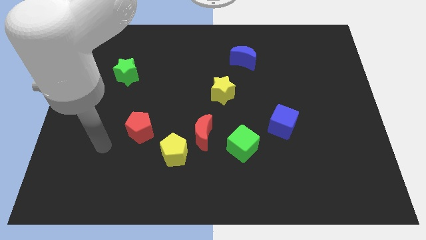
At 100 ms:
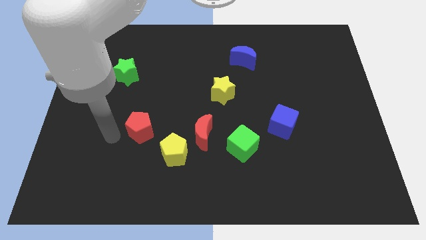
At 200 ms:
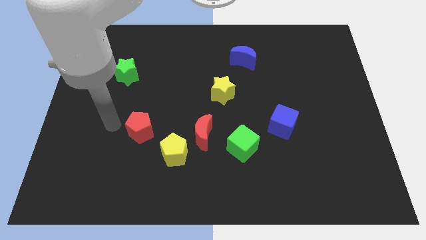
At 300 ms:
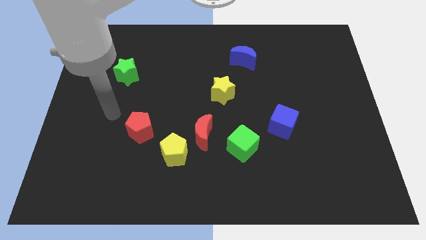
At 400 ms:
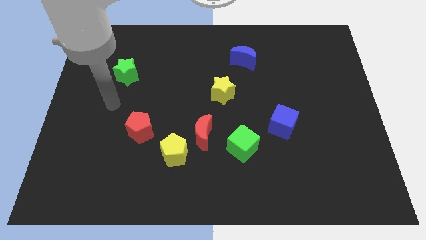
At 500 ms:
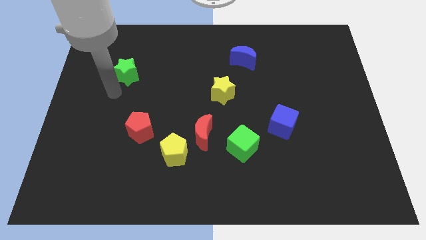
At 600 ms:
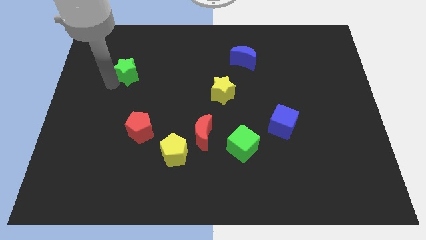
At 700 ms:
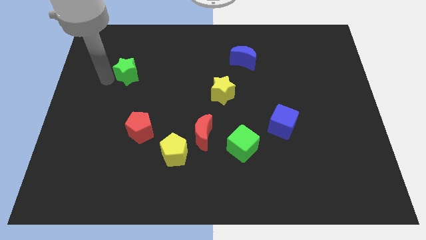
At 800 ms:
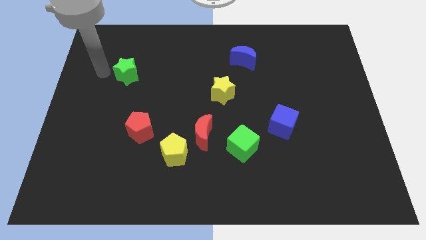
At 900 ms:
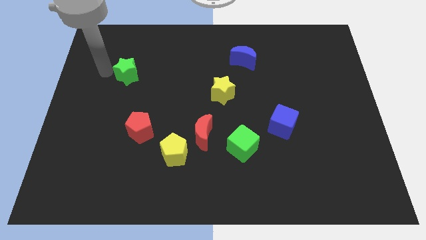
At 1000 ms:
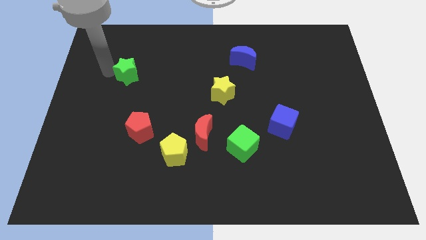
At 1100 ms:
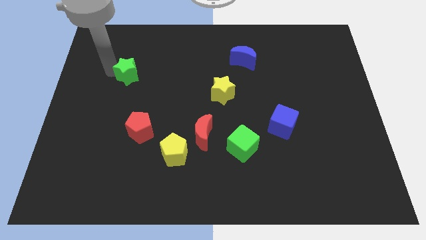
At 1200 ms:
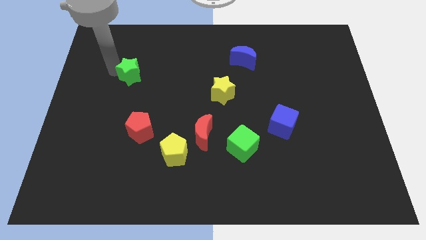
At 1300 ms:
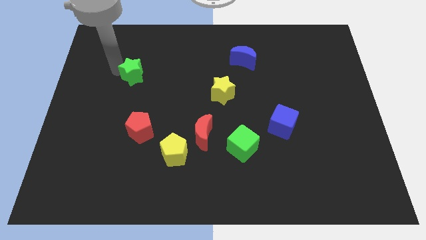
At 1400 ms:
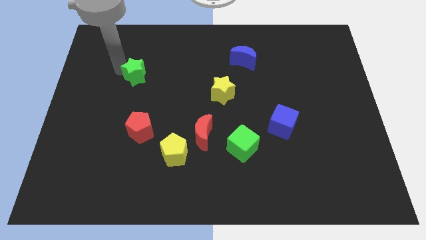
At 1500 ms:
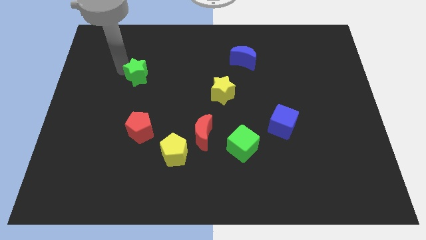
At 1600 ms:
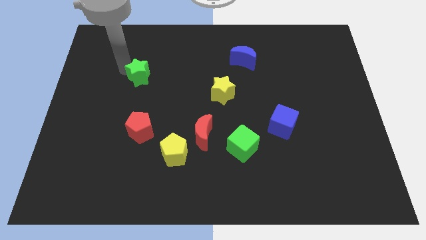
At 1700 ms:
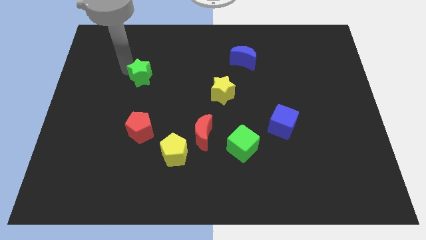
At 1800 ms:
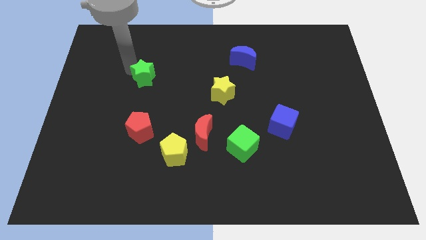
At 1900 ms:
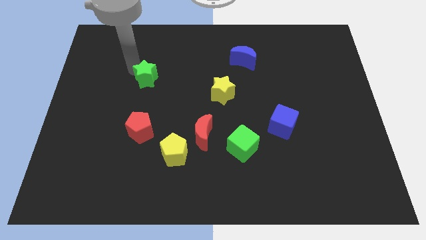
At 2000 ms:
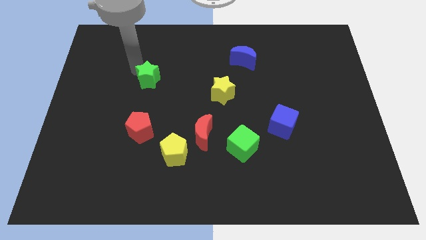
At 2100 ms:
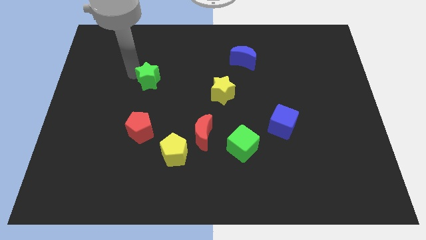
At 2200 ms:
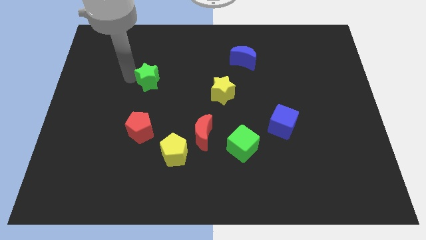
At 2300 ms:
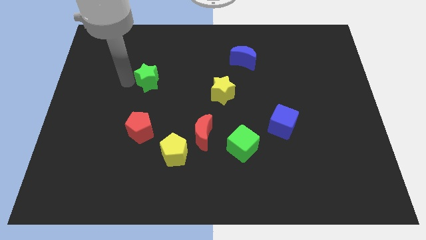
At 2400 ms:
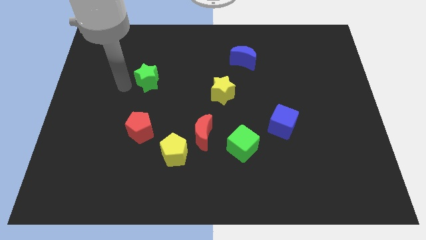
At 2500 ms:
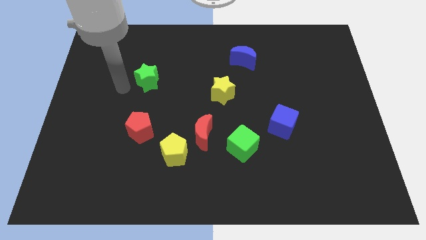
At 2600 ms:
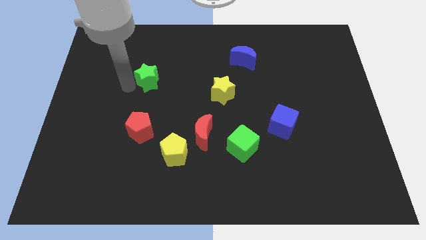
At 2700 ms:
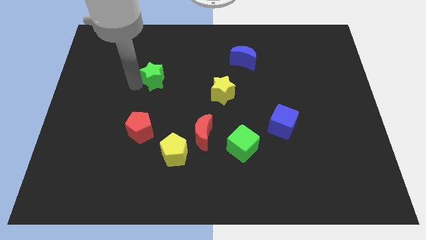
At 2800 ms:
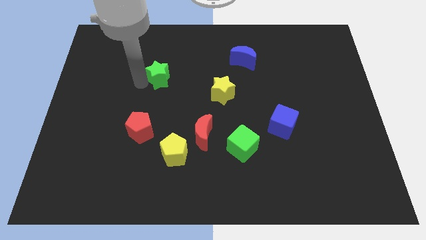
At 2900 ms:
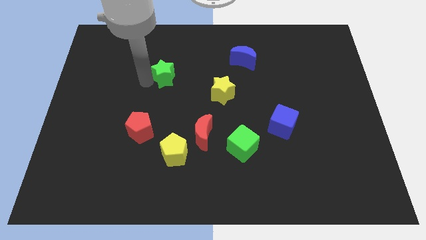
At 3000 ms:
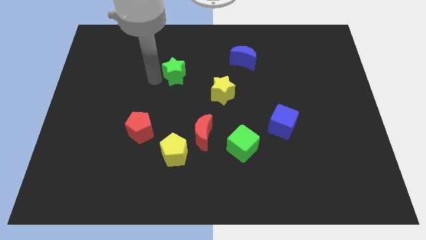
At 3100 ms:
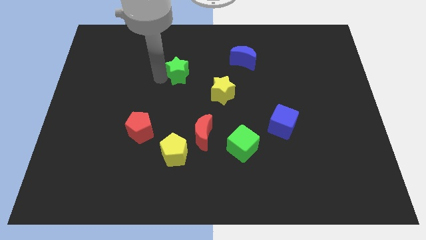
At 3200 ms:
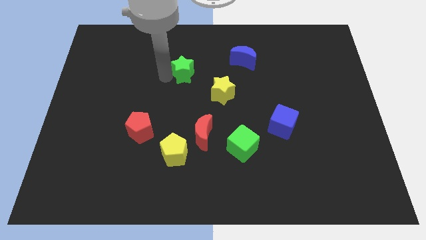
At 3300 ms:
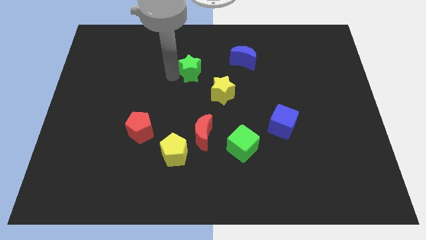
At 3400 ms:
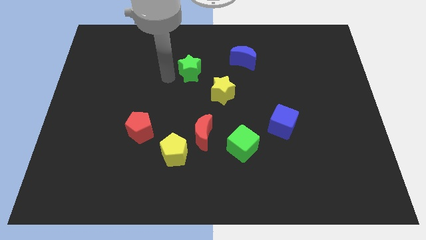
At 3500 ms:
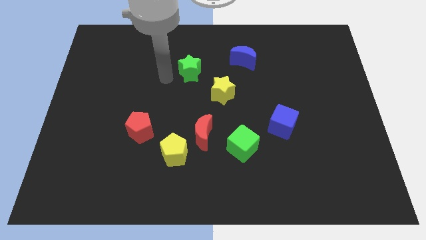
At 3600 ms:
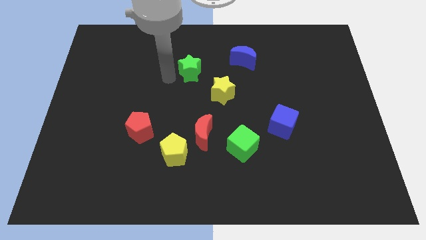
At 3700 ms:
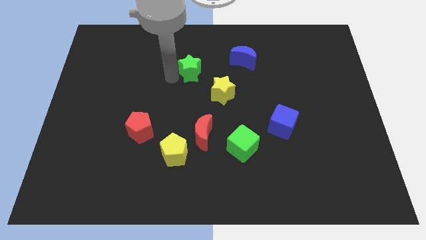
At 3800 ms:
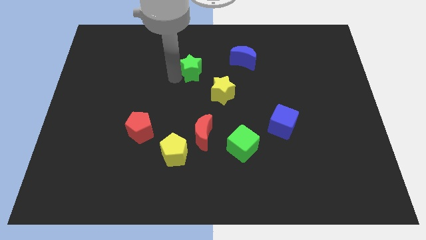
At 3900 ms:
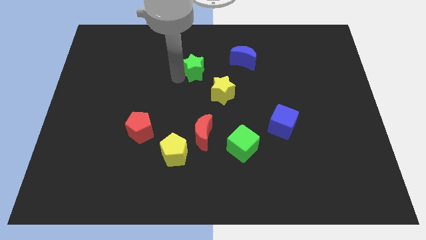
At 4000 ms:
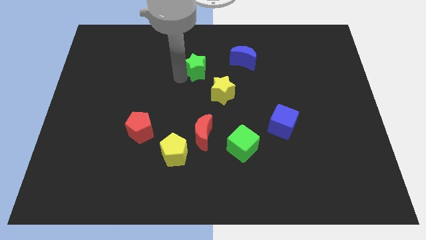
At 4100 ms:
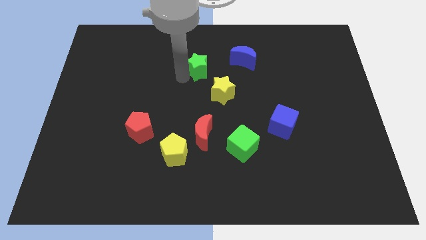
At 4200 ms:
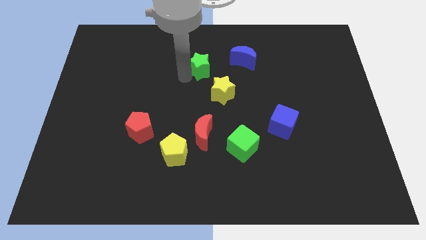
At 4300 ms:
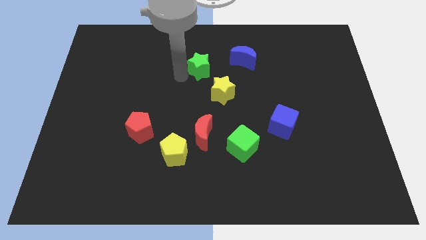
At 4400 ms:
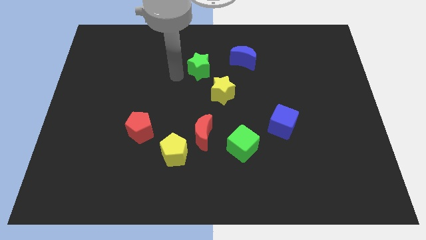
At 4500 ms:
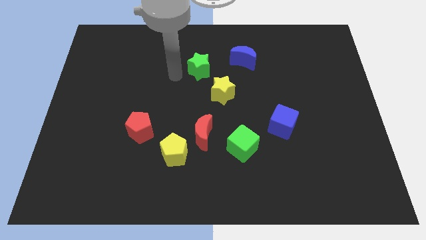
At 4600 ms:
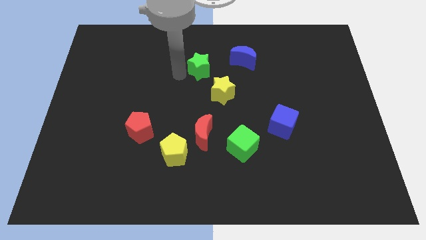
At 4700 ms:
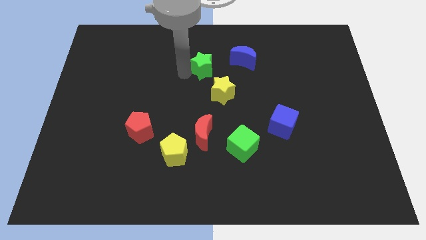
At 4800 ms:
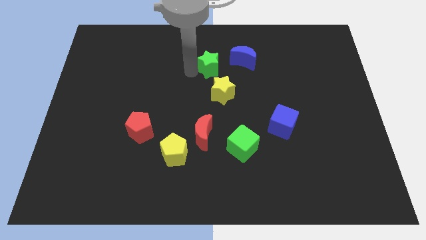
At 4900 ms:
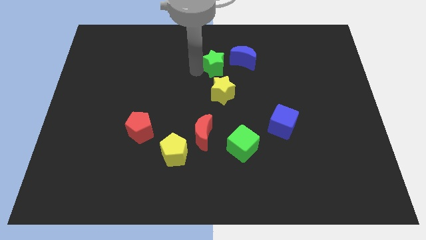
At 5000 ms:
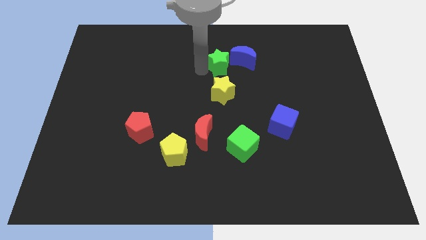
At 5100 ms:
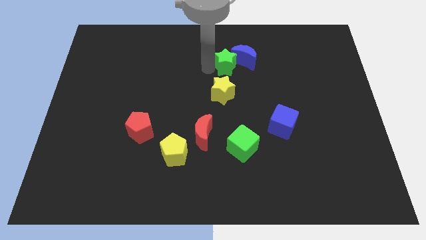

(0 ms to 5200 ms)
slide the green star close to the blue moon

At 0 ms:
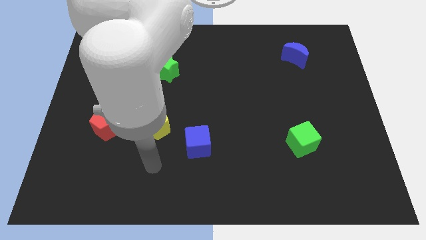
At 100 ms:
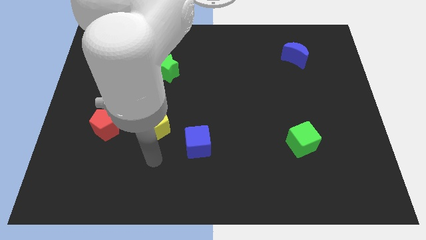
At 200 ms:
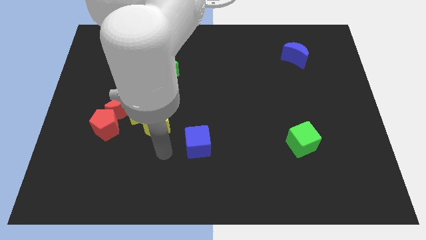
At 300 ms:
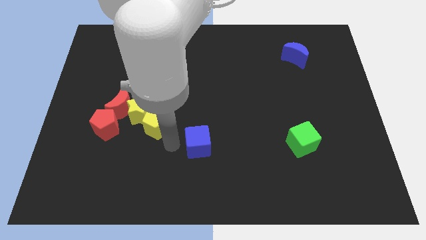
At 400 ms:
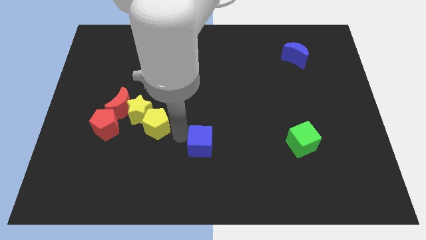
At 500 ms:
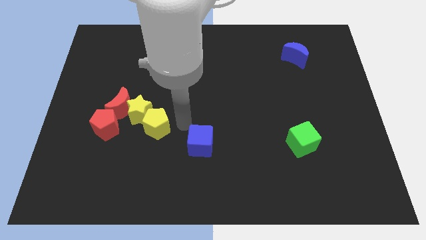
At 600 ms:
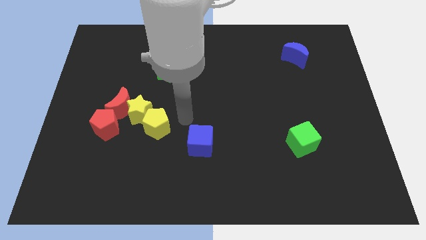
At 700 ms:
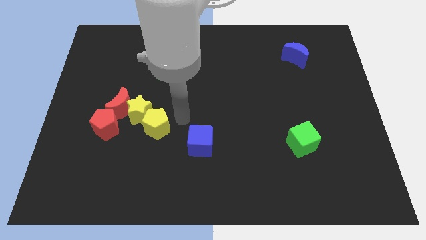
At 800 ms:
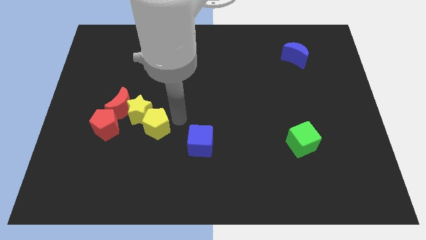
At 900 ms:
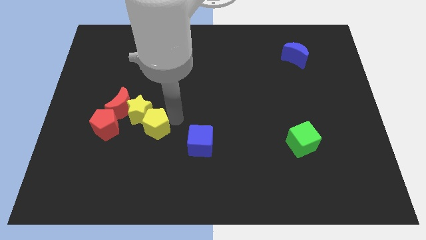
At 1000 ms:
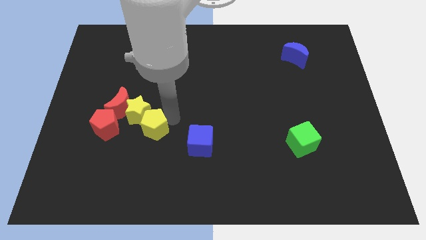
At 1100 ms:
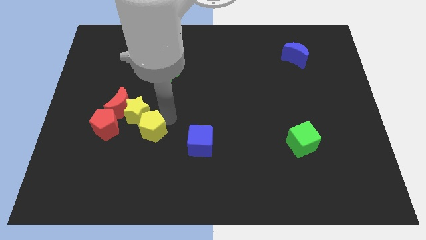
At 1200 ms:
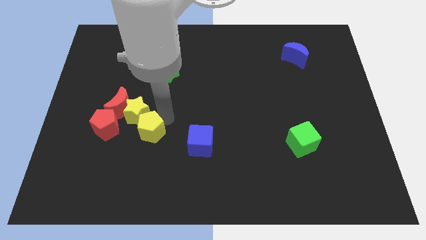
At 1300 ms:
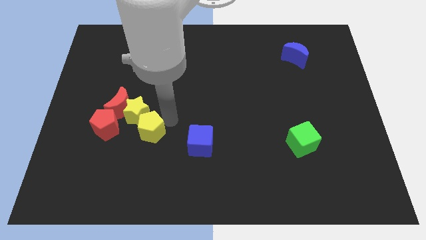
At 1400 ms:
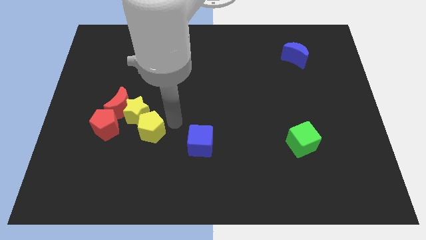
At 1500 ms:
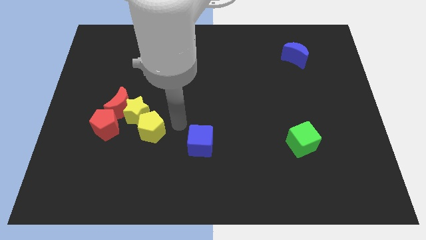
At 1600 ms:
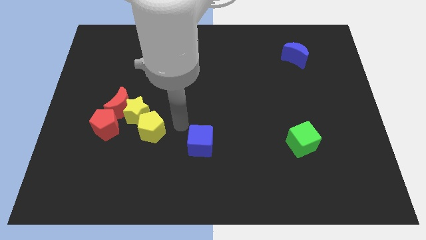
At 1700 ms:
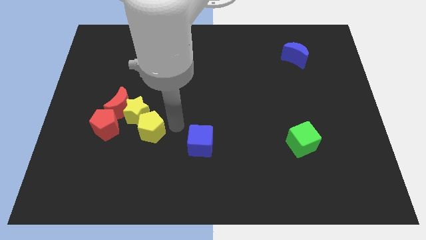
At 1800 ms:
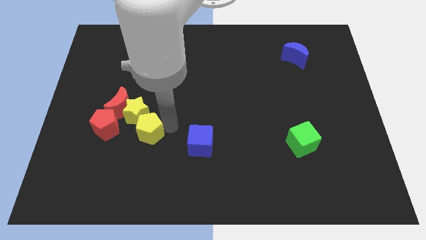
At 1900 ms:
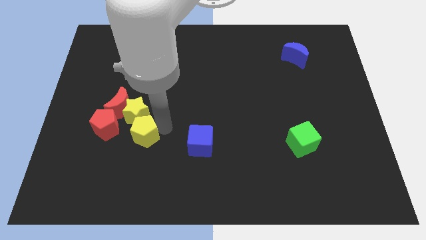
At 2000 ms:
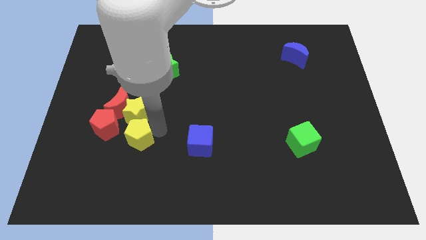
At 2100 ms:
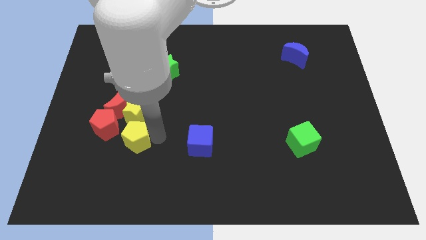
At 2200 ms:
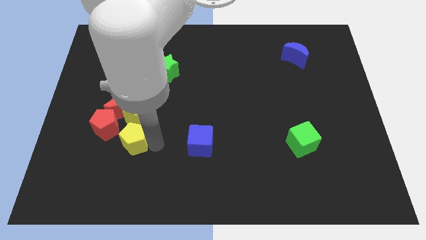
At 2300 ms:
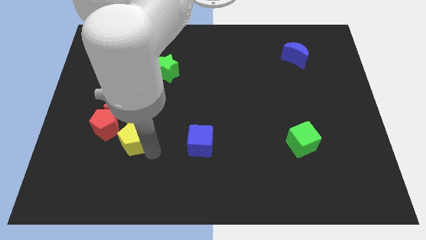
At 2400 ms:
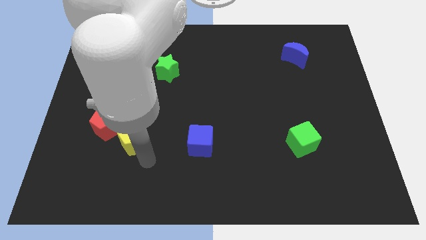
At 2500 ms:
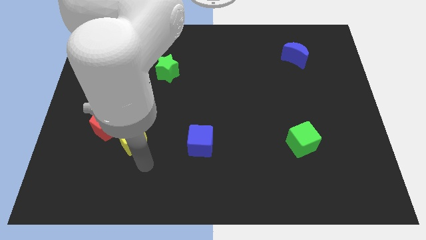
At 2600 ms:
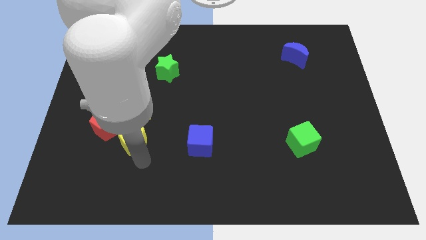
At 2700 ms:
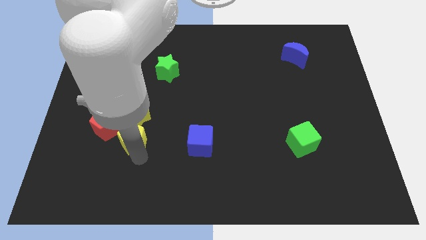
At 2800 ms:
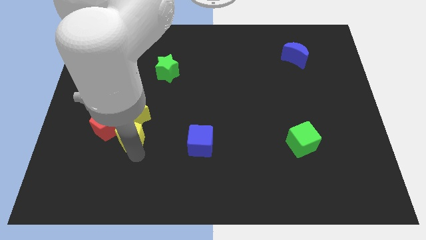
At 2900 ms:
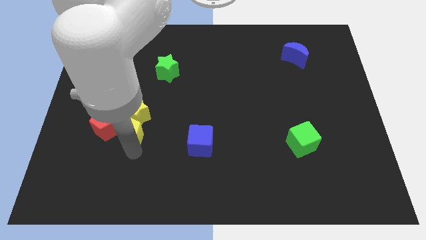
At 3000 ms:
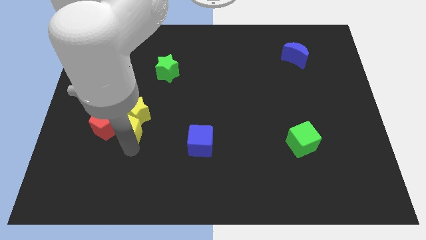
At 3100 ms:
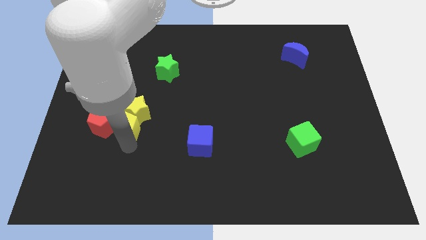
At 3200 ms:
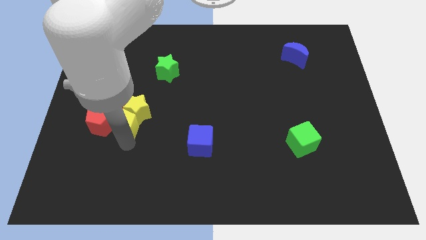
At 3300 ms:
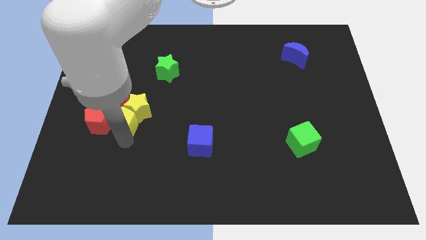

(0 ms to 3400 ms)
push the yellow pentagon towards the red moon
